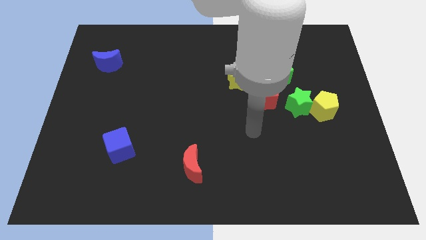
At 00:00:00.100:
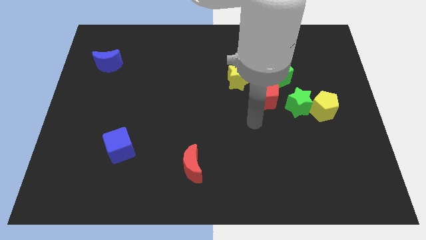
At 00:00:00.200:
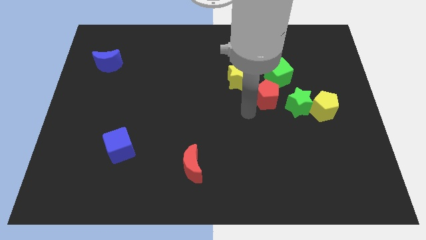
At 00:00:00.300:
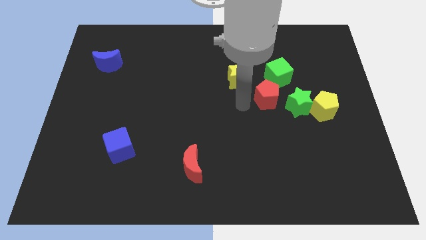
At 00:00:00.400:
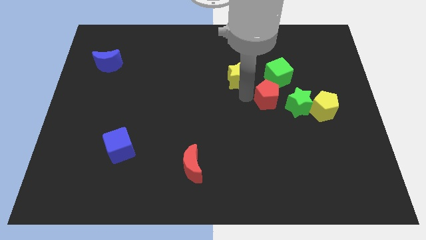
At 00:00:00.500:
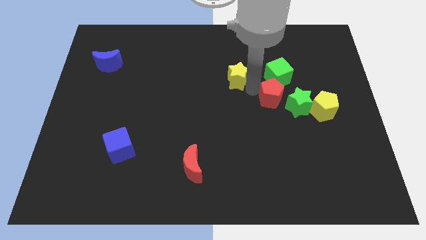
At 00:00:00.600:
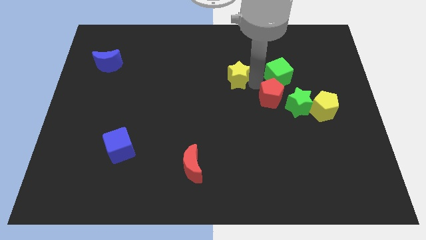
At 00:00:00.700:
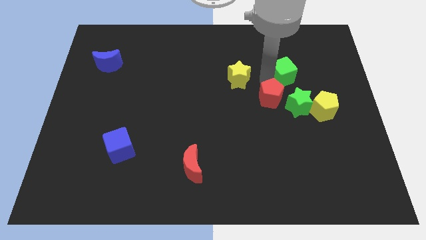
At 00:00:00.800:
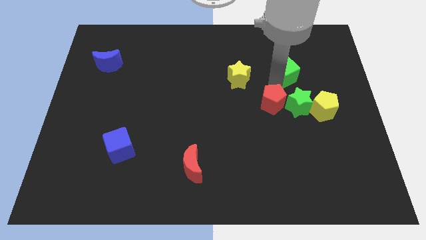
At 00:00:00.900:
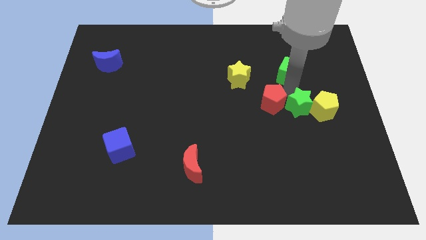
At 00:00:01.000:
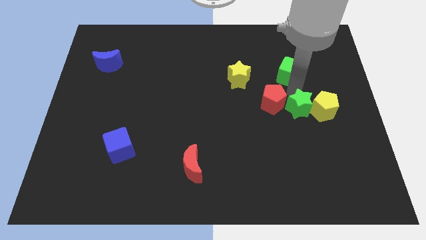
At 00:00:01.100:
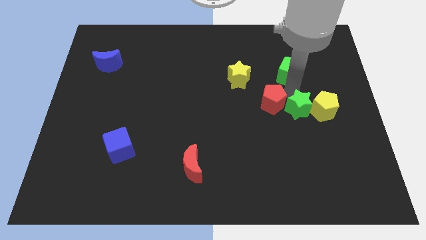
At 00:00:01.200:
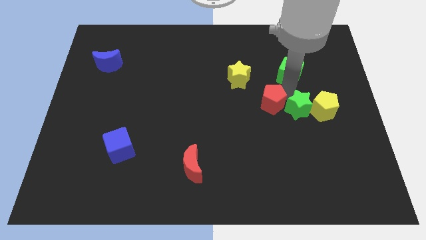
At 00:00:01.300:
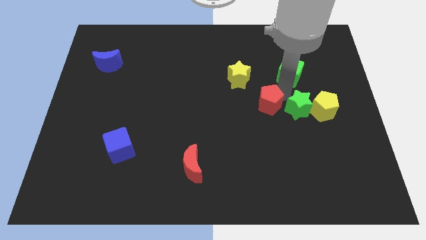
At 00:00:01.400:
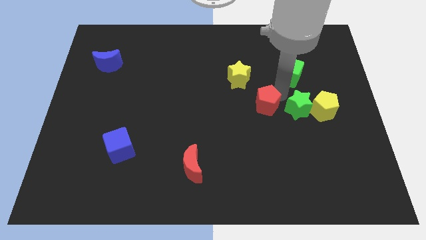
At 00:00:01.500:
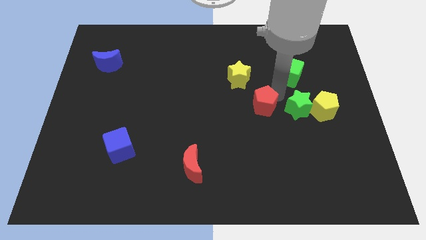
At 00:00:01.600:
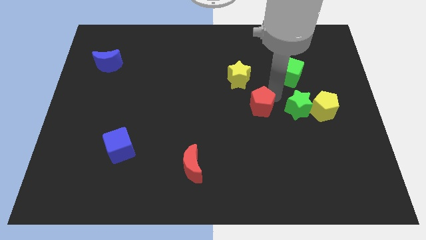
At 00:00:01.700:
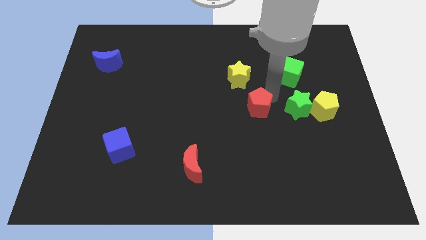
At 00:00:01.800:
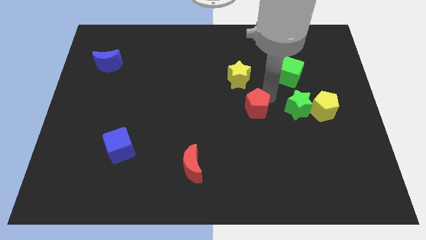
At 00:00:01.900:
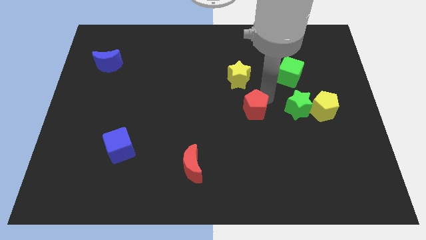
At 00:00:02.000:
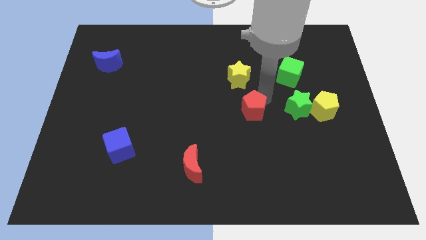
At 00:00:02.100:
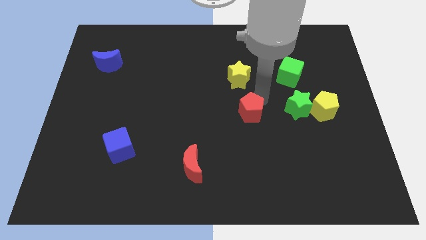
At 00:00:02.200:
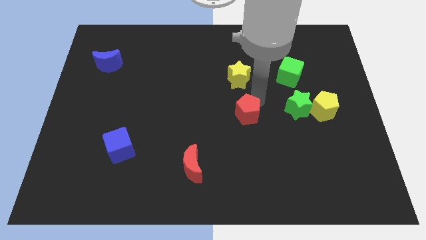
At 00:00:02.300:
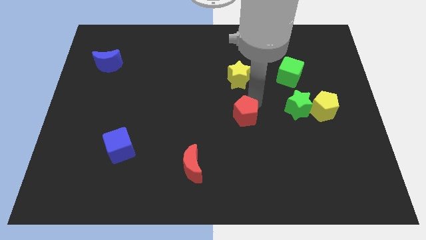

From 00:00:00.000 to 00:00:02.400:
move the red pentagon a little bit diagonally downwards and to the left

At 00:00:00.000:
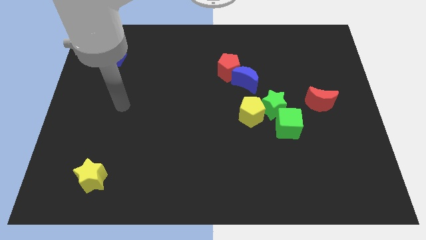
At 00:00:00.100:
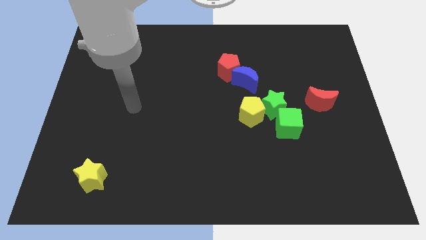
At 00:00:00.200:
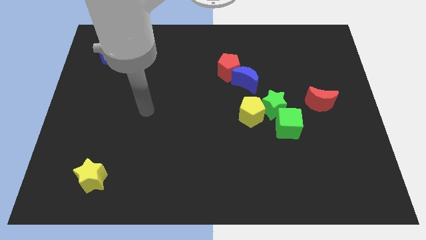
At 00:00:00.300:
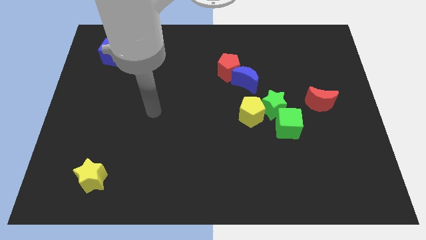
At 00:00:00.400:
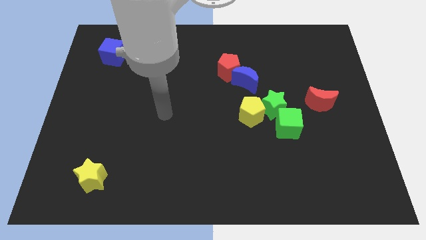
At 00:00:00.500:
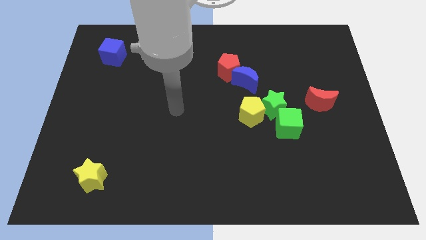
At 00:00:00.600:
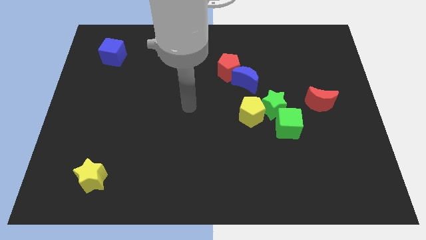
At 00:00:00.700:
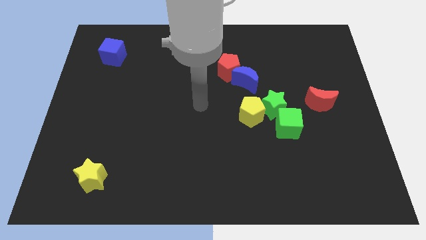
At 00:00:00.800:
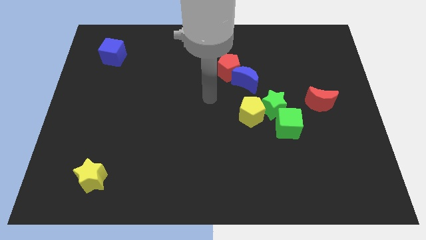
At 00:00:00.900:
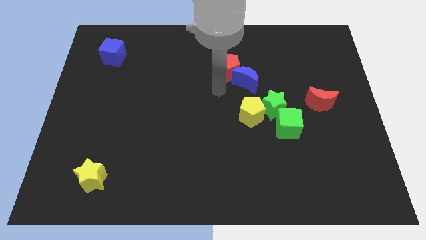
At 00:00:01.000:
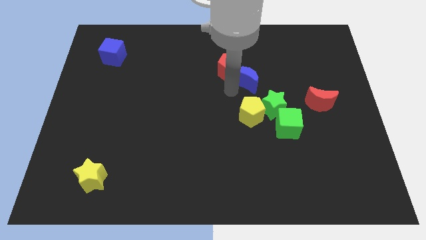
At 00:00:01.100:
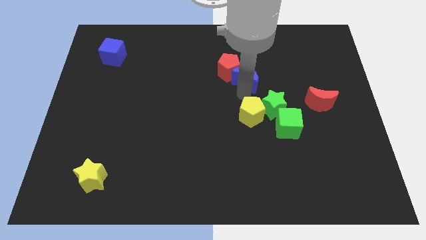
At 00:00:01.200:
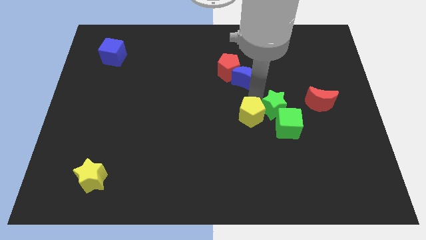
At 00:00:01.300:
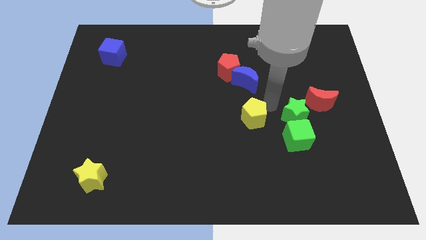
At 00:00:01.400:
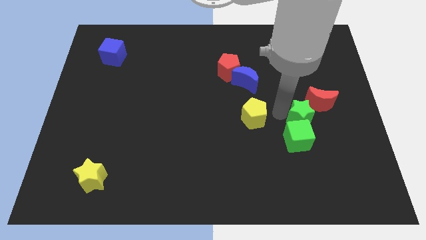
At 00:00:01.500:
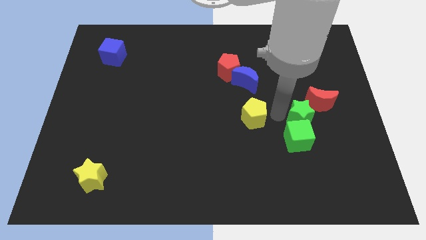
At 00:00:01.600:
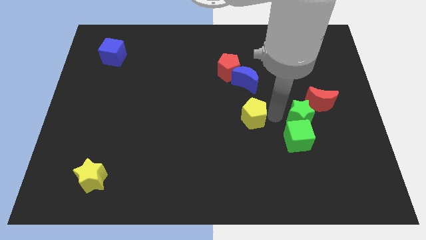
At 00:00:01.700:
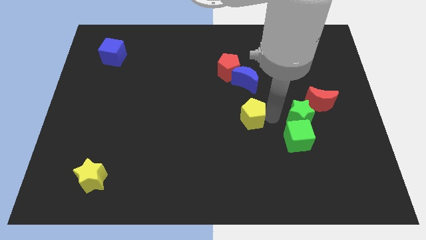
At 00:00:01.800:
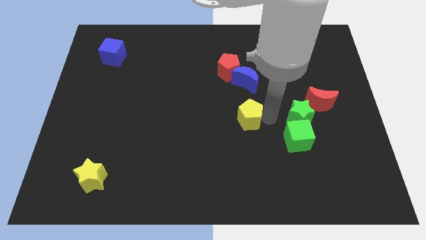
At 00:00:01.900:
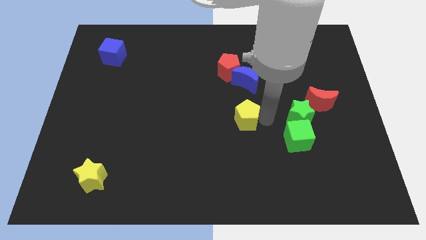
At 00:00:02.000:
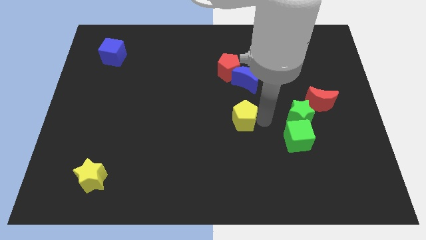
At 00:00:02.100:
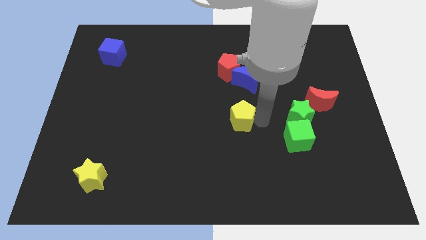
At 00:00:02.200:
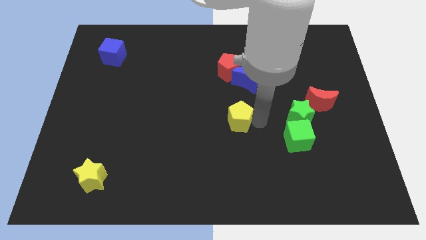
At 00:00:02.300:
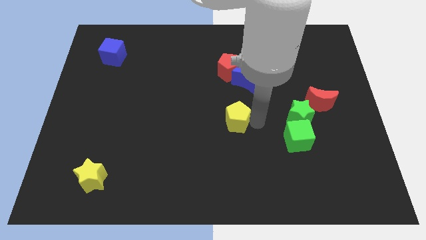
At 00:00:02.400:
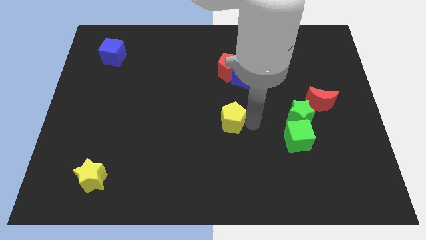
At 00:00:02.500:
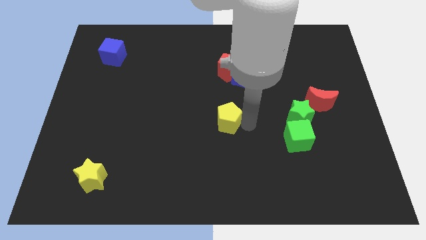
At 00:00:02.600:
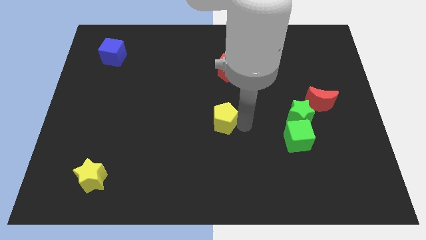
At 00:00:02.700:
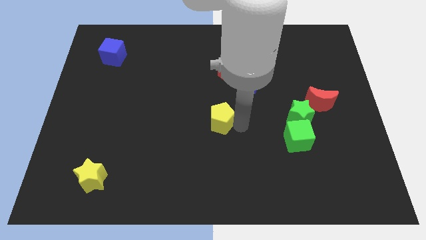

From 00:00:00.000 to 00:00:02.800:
slide the yellow pentagon to the left a bit

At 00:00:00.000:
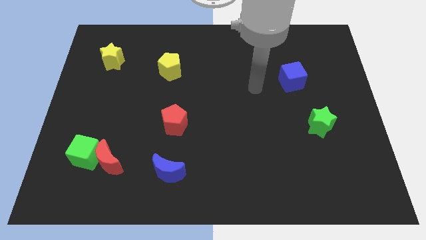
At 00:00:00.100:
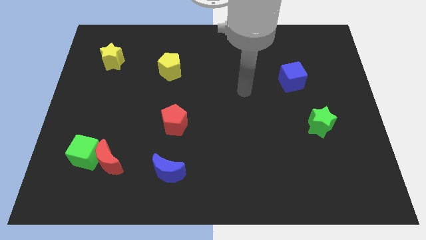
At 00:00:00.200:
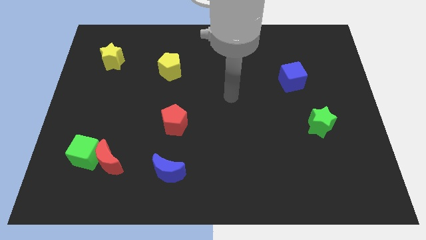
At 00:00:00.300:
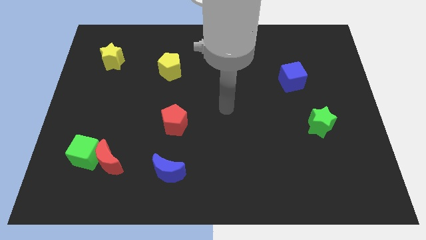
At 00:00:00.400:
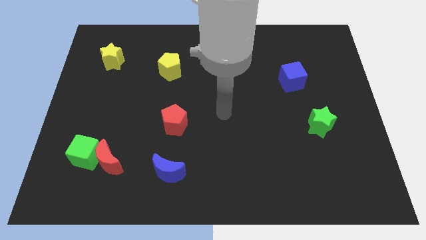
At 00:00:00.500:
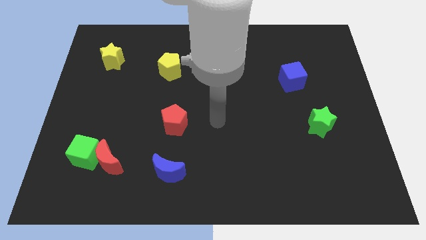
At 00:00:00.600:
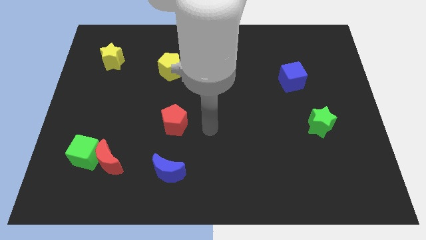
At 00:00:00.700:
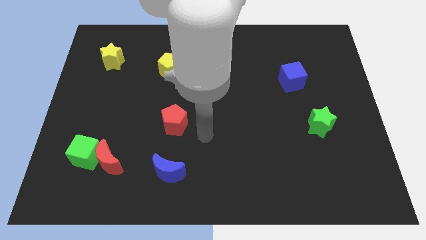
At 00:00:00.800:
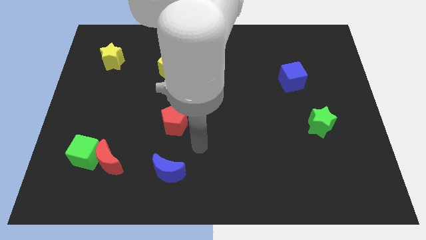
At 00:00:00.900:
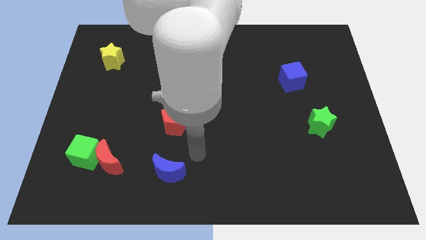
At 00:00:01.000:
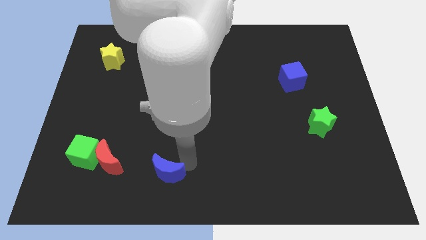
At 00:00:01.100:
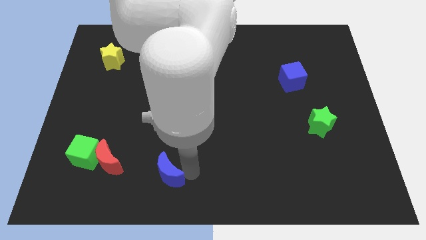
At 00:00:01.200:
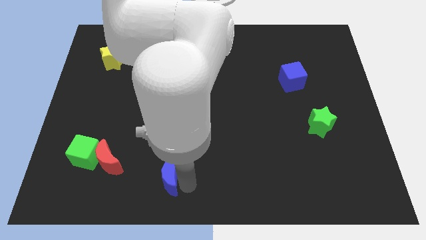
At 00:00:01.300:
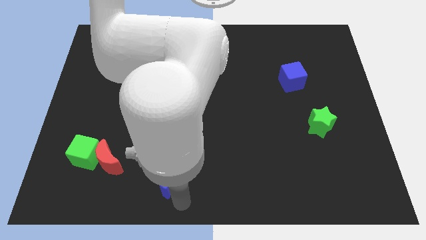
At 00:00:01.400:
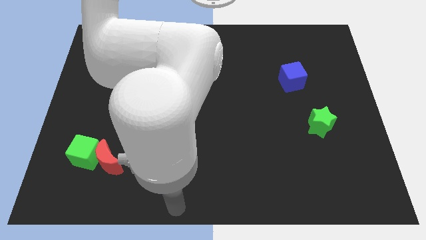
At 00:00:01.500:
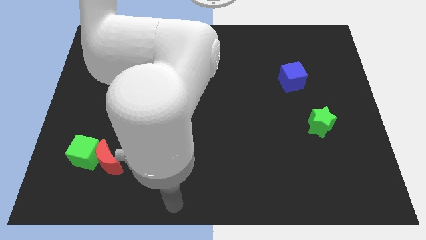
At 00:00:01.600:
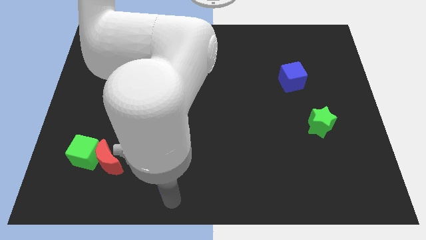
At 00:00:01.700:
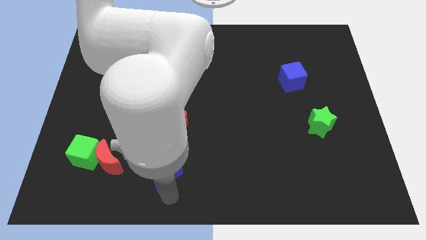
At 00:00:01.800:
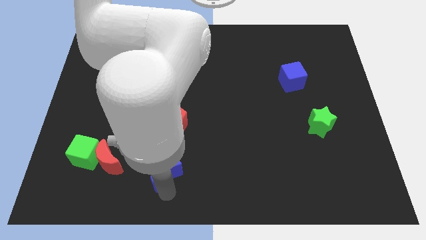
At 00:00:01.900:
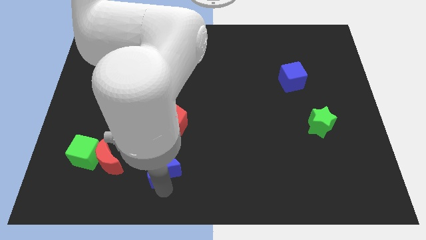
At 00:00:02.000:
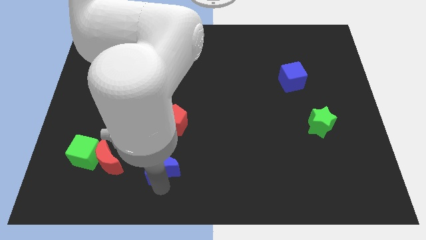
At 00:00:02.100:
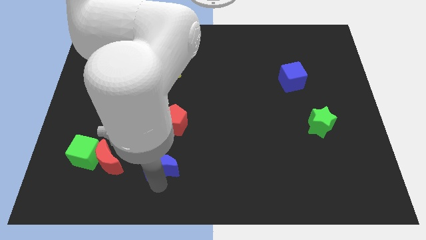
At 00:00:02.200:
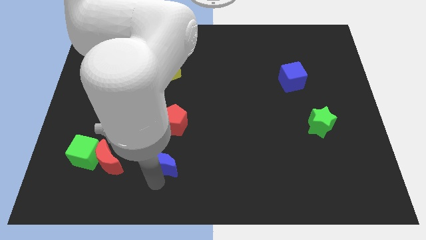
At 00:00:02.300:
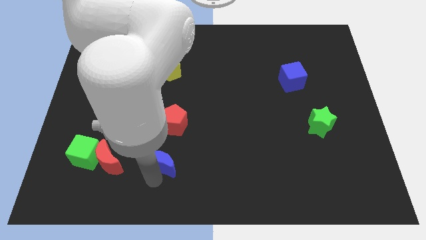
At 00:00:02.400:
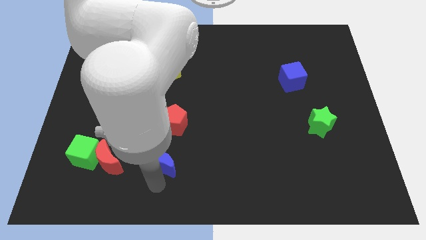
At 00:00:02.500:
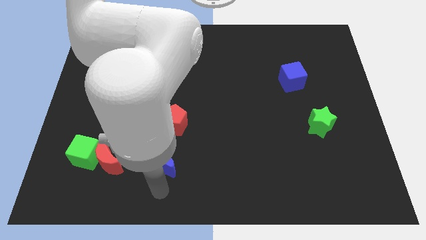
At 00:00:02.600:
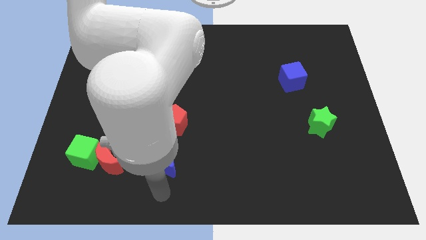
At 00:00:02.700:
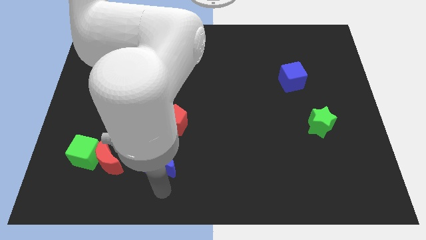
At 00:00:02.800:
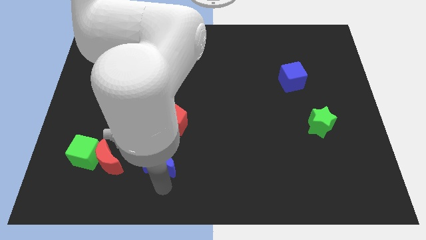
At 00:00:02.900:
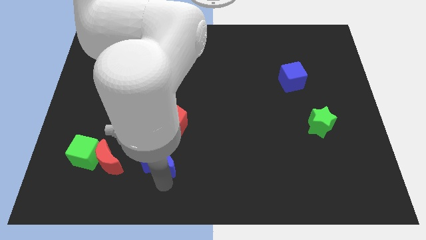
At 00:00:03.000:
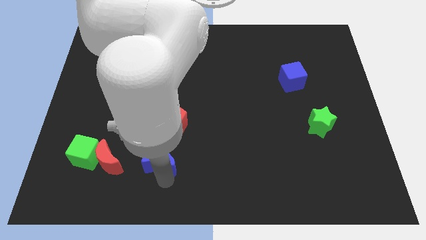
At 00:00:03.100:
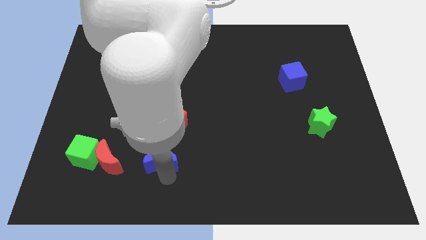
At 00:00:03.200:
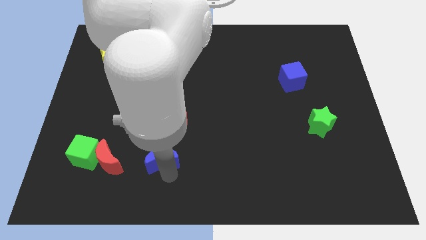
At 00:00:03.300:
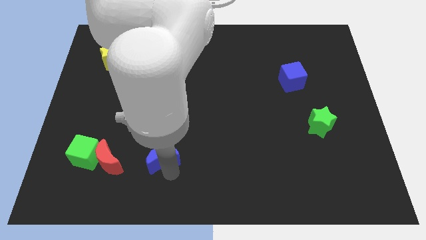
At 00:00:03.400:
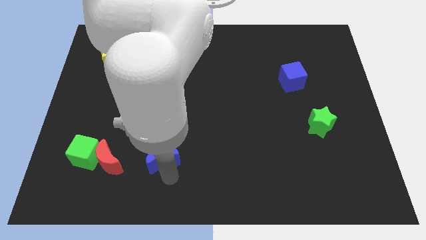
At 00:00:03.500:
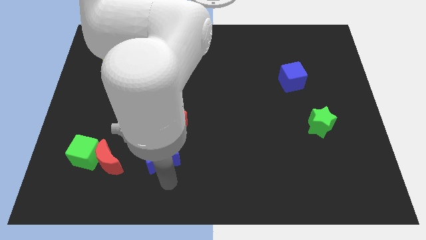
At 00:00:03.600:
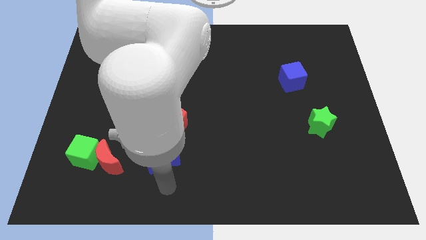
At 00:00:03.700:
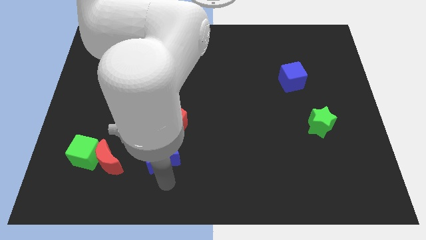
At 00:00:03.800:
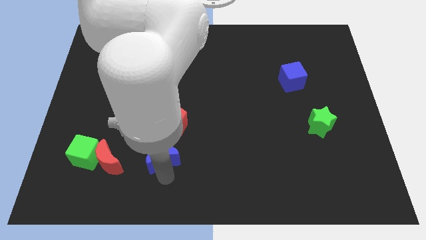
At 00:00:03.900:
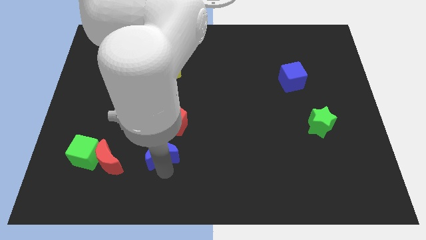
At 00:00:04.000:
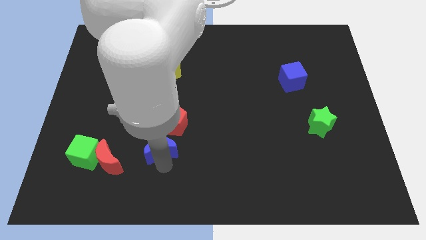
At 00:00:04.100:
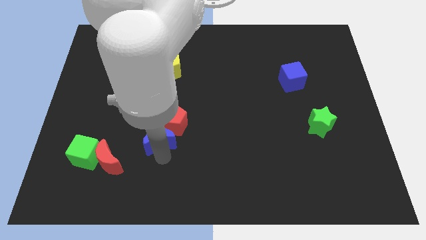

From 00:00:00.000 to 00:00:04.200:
move the blue moon slightly upwards
